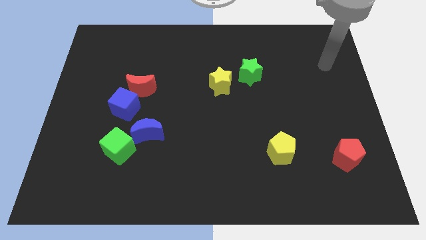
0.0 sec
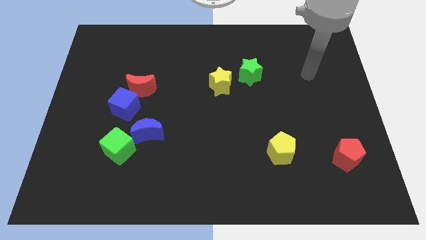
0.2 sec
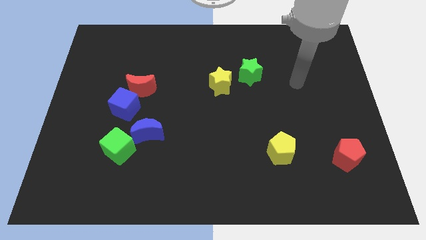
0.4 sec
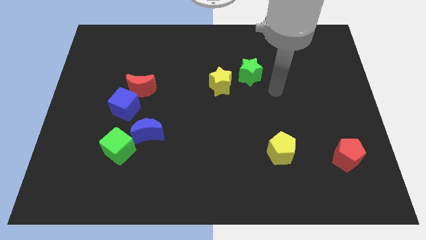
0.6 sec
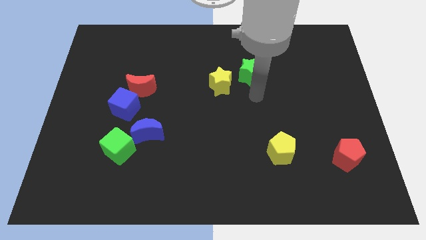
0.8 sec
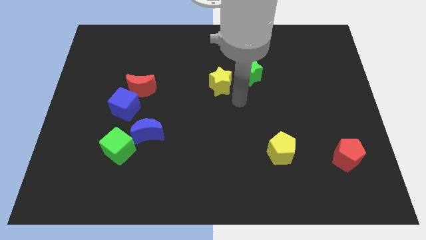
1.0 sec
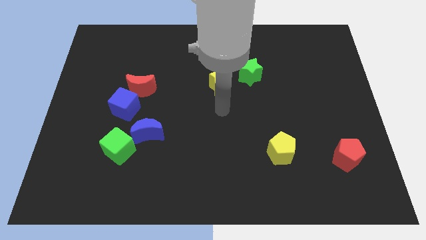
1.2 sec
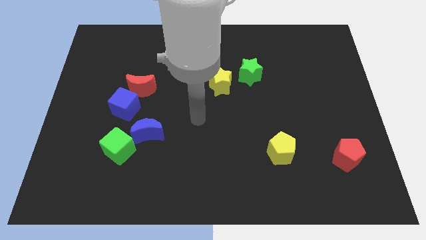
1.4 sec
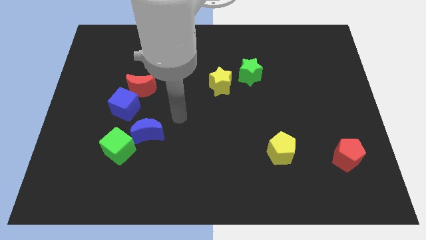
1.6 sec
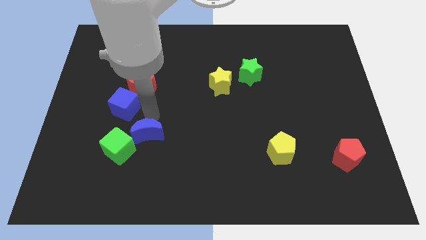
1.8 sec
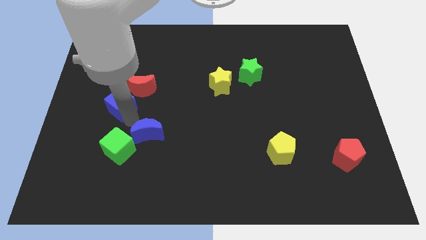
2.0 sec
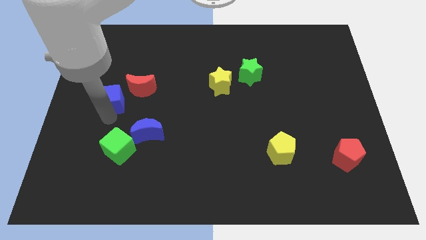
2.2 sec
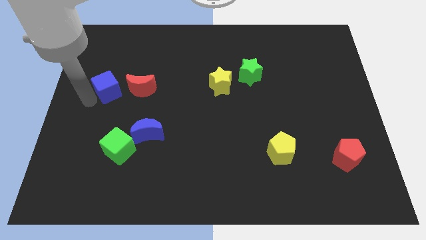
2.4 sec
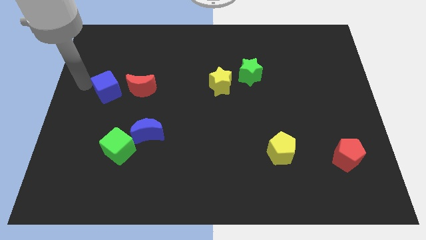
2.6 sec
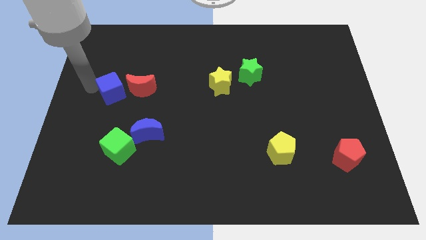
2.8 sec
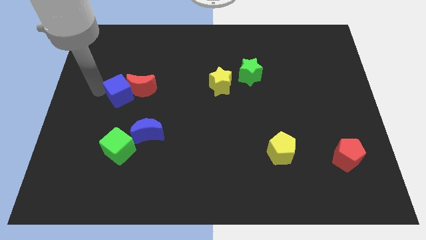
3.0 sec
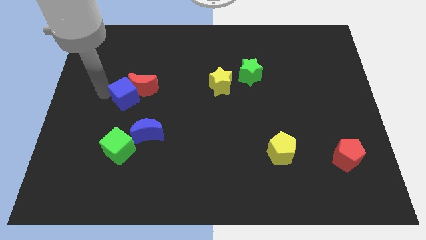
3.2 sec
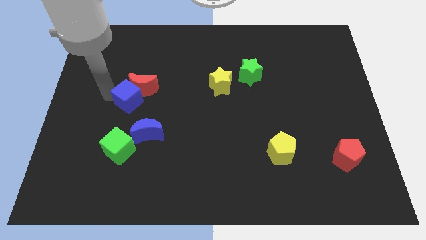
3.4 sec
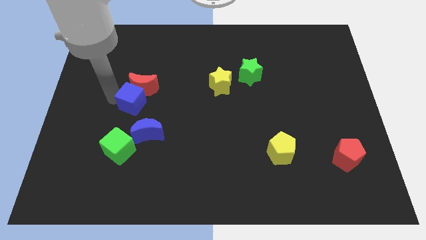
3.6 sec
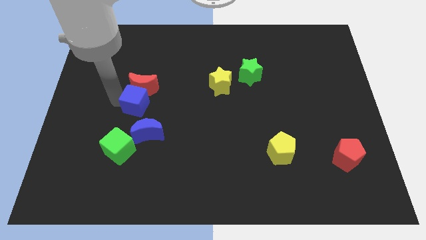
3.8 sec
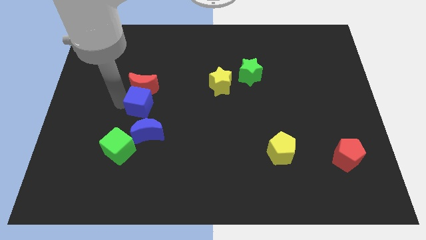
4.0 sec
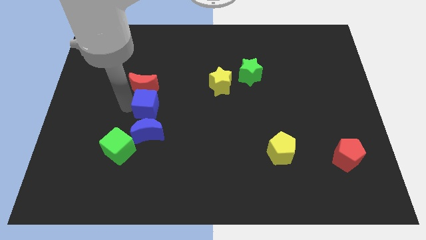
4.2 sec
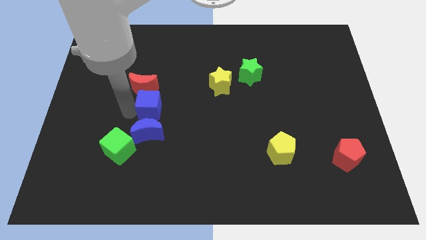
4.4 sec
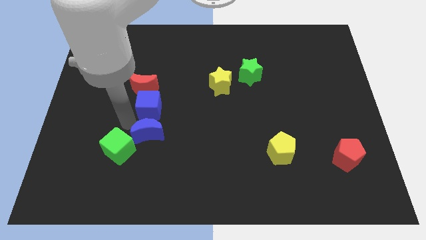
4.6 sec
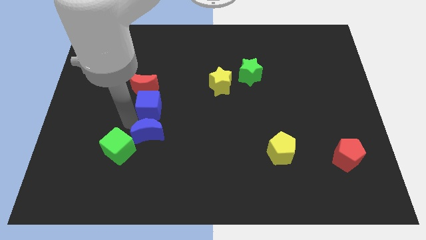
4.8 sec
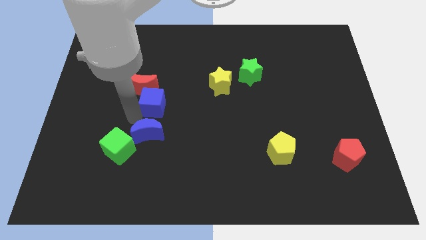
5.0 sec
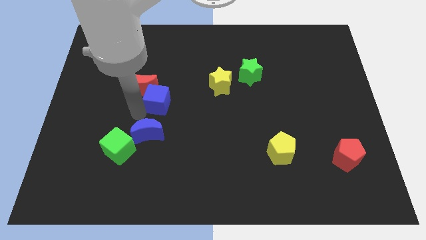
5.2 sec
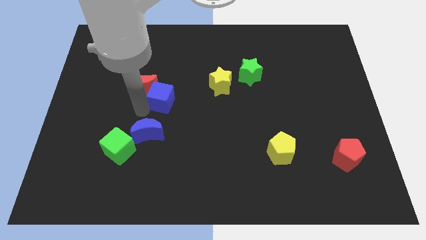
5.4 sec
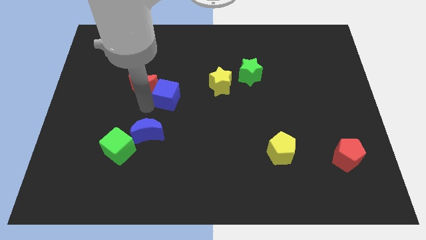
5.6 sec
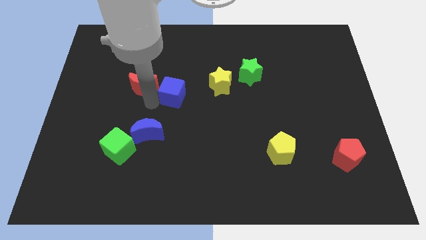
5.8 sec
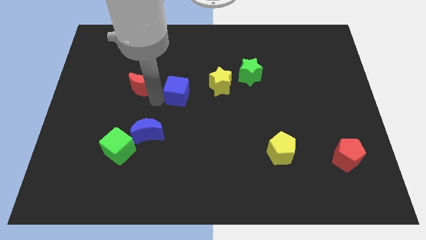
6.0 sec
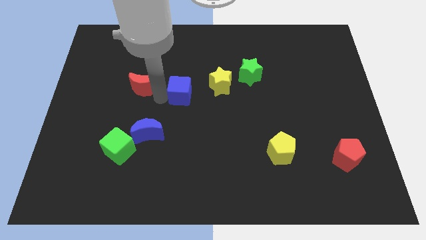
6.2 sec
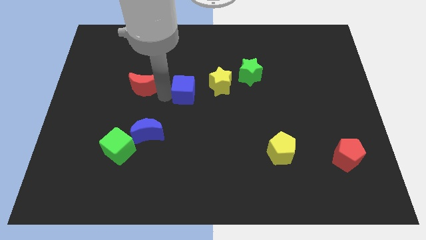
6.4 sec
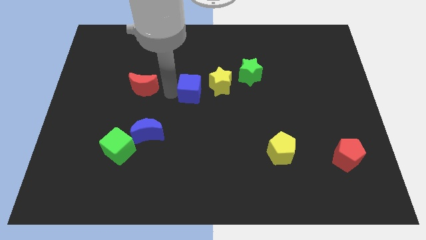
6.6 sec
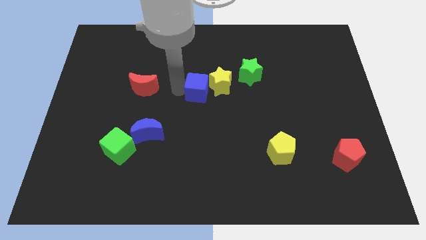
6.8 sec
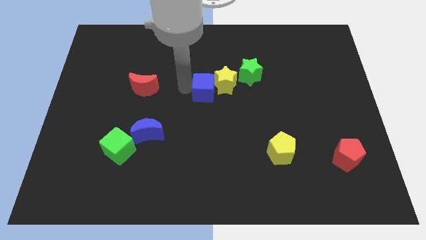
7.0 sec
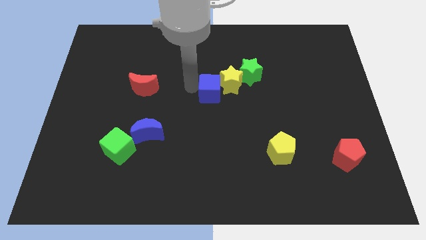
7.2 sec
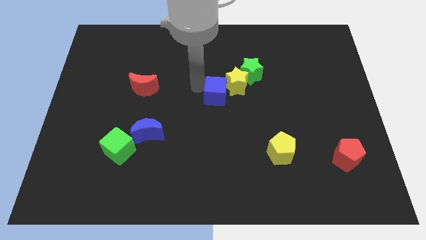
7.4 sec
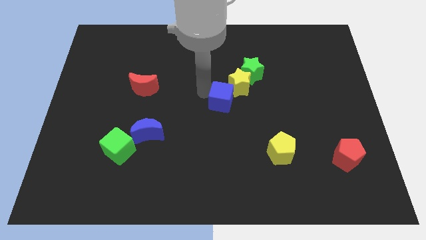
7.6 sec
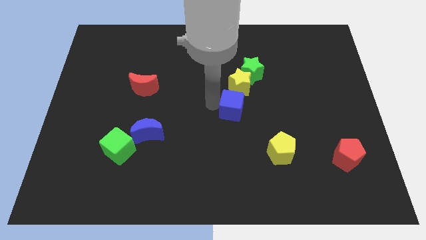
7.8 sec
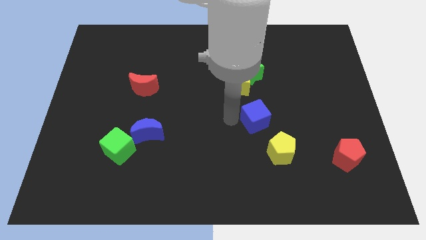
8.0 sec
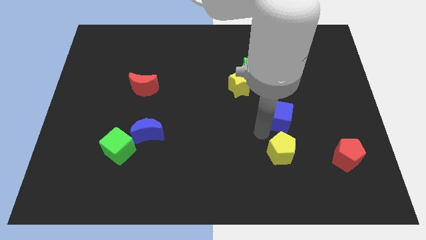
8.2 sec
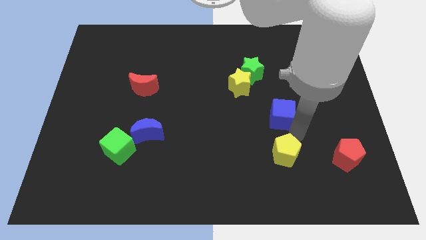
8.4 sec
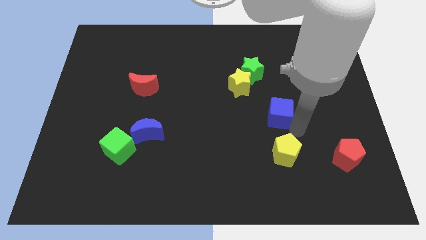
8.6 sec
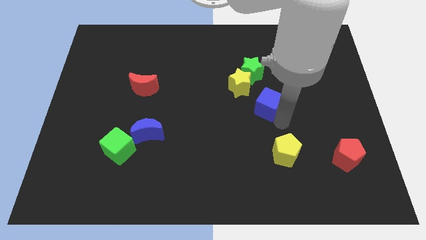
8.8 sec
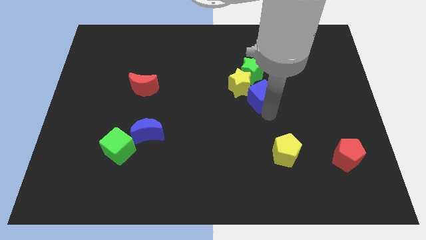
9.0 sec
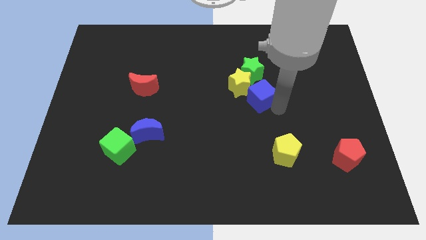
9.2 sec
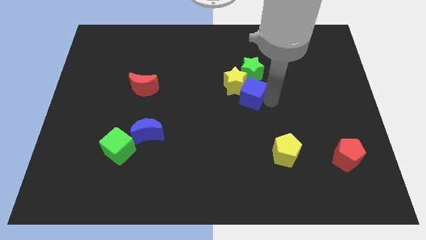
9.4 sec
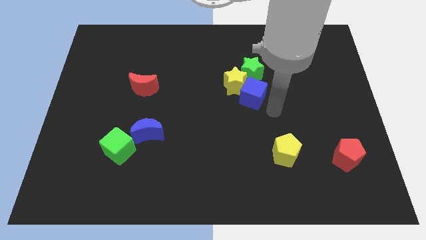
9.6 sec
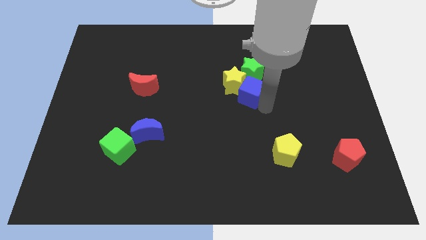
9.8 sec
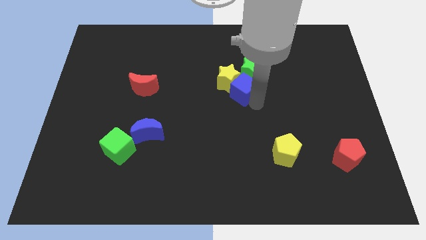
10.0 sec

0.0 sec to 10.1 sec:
push the blue cube to the green star

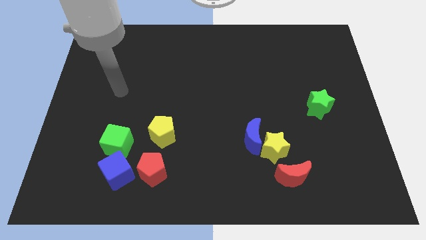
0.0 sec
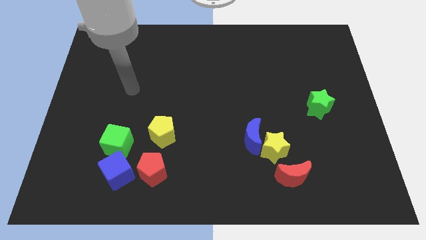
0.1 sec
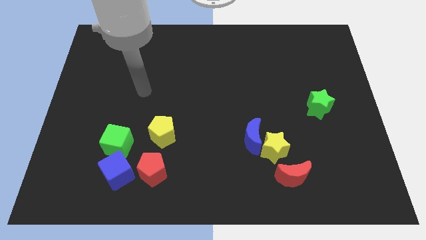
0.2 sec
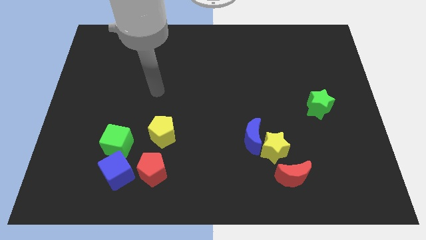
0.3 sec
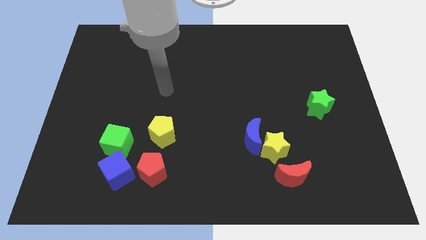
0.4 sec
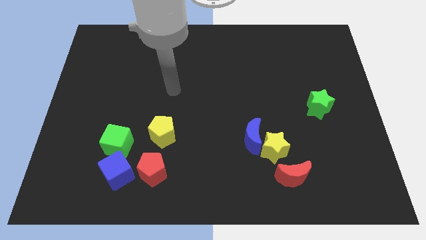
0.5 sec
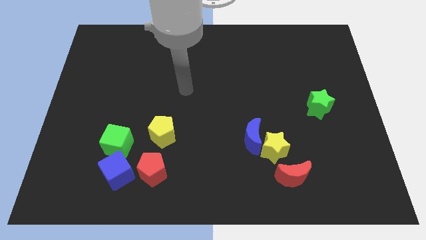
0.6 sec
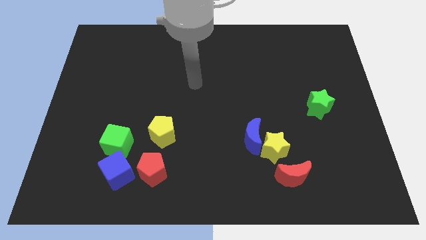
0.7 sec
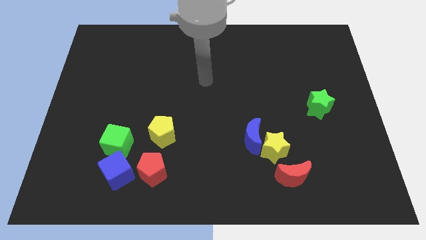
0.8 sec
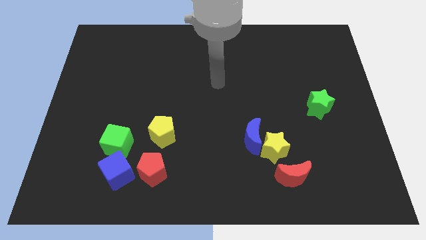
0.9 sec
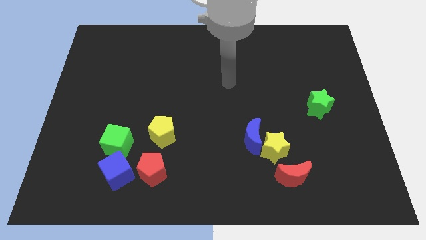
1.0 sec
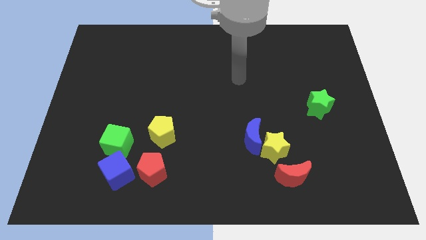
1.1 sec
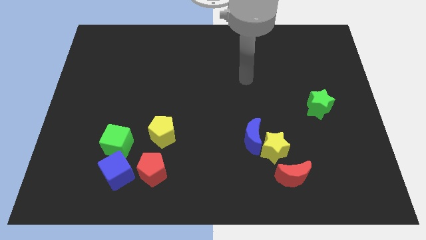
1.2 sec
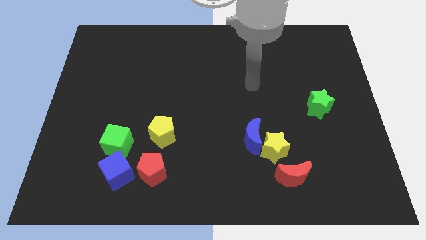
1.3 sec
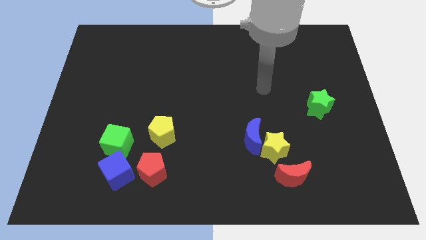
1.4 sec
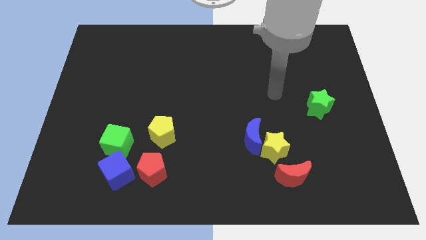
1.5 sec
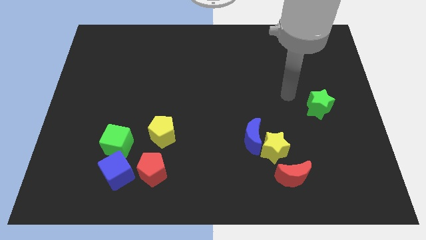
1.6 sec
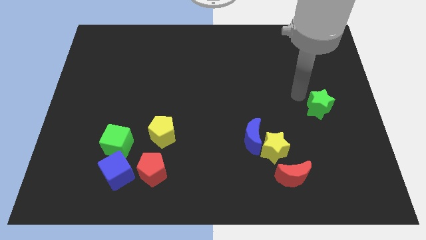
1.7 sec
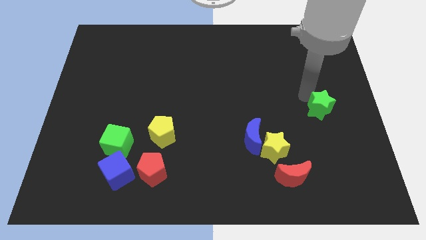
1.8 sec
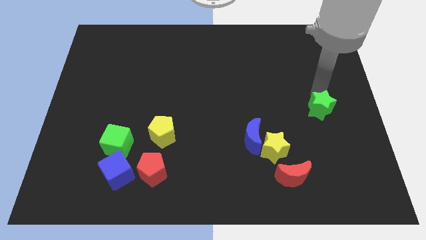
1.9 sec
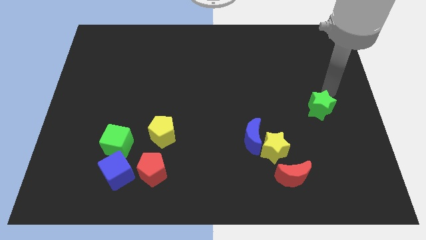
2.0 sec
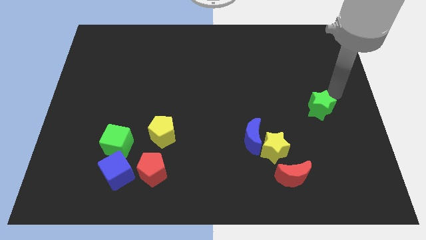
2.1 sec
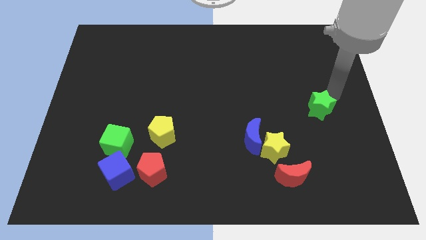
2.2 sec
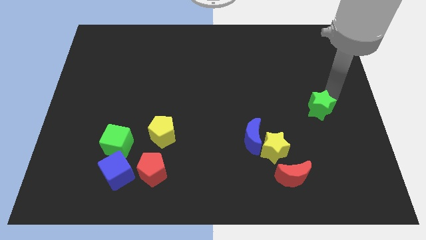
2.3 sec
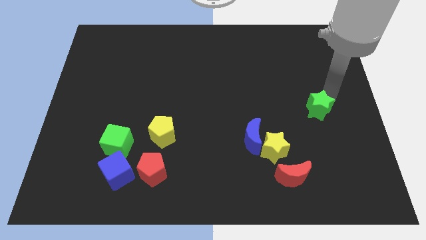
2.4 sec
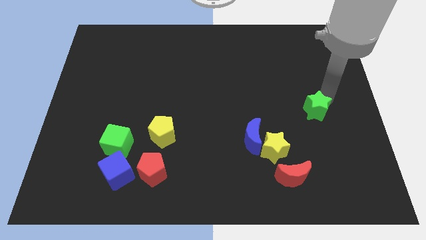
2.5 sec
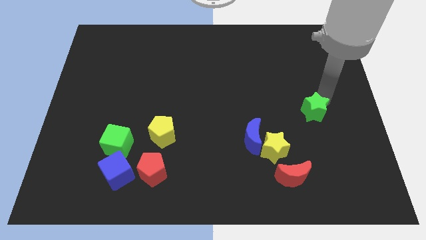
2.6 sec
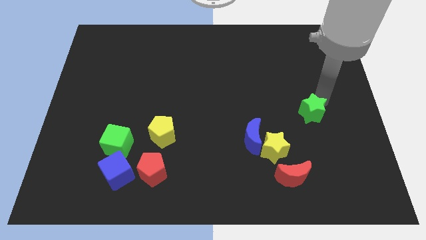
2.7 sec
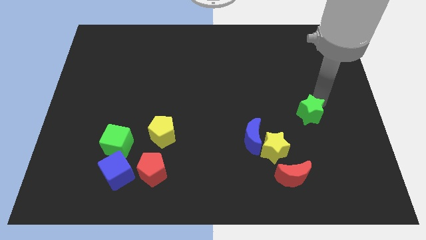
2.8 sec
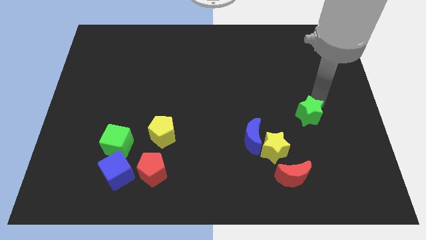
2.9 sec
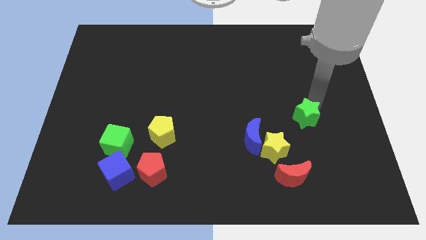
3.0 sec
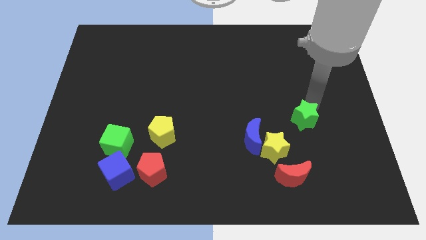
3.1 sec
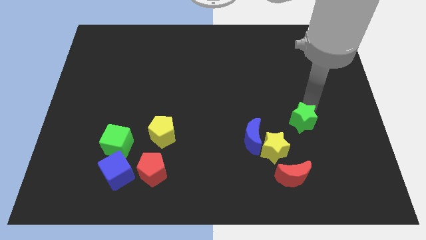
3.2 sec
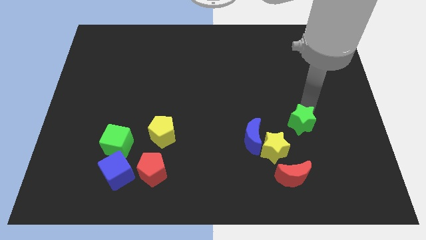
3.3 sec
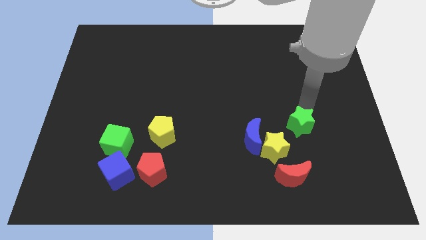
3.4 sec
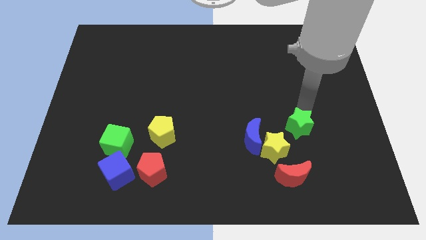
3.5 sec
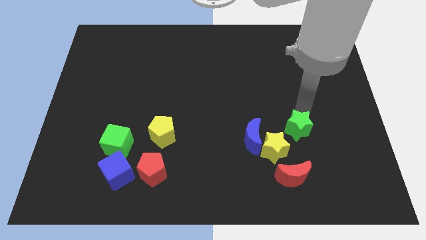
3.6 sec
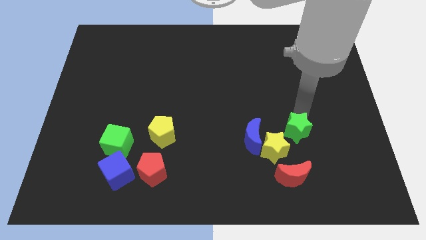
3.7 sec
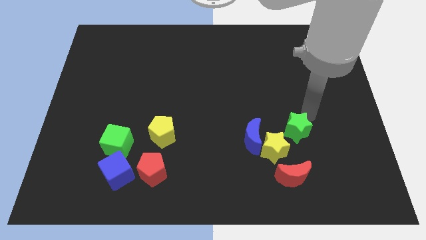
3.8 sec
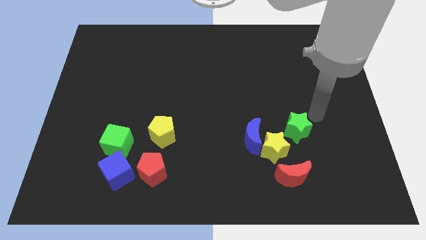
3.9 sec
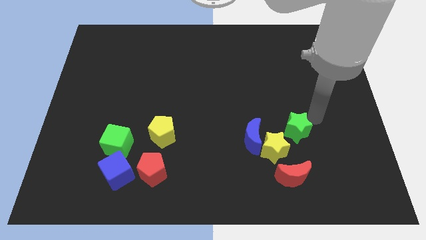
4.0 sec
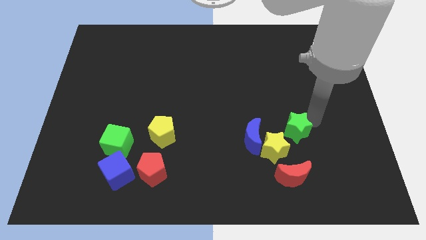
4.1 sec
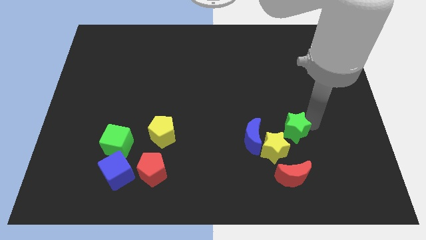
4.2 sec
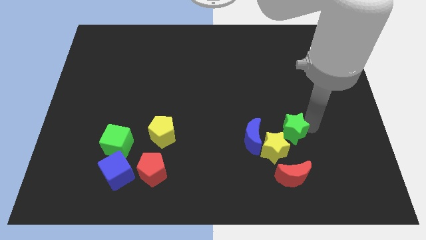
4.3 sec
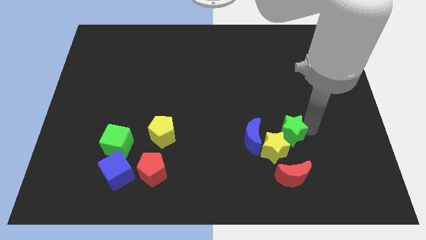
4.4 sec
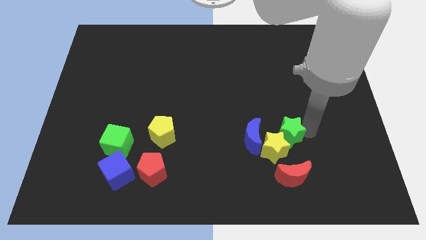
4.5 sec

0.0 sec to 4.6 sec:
move the green star close to the yellow star
